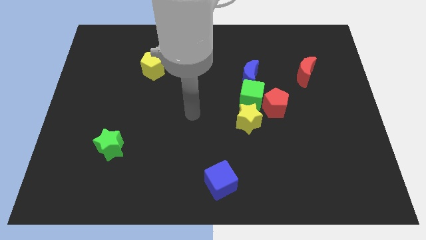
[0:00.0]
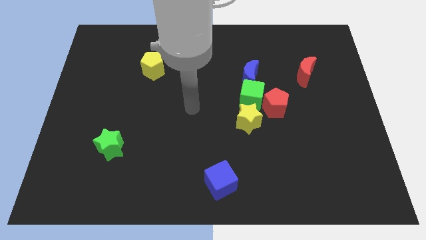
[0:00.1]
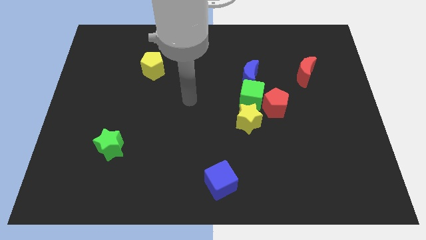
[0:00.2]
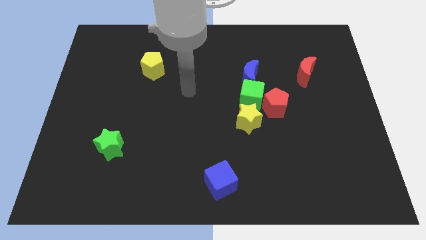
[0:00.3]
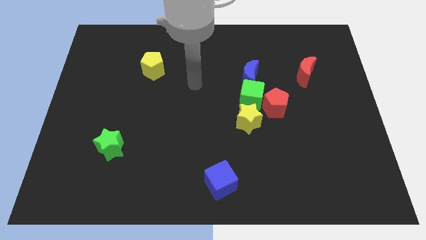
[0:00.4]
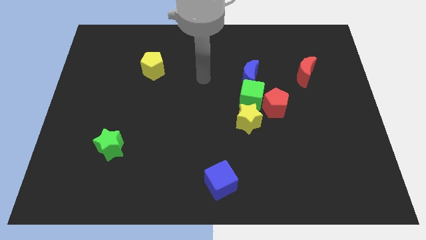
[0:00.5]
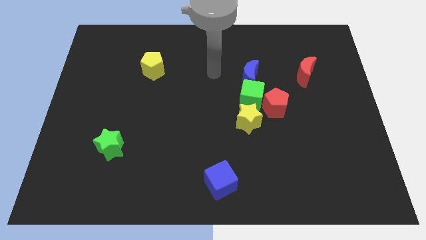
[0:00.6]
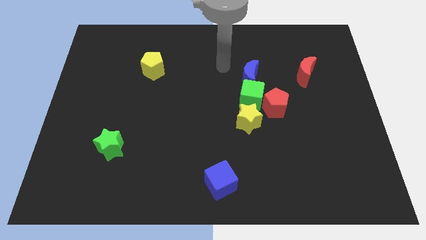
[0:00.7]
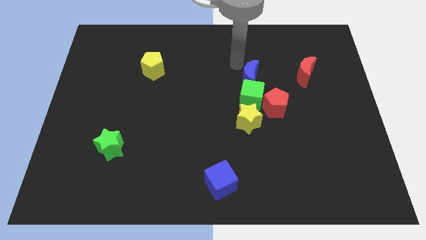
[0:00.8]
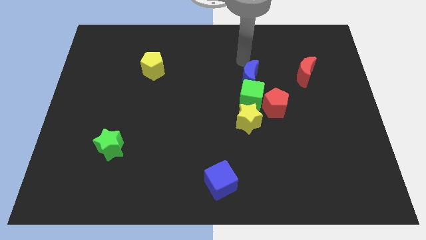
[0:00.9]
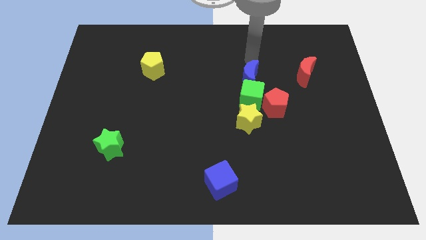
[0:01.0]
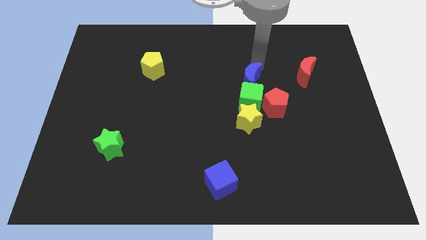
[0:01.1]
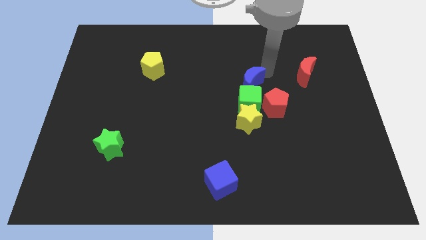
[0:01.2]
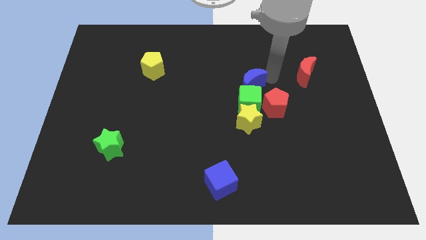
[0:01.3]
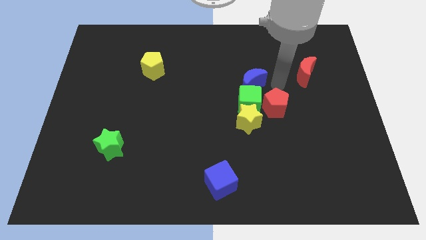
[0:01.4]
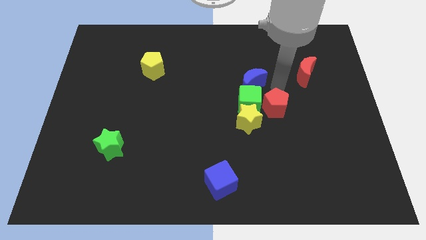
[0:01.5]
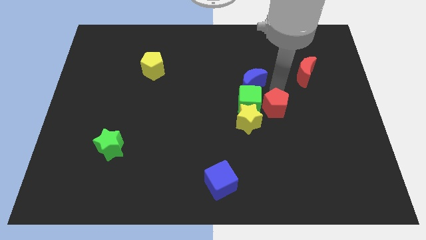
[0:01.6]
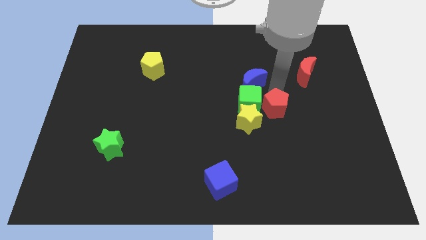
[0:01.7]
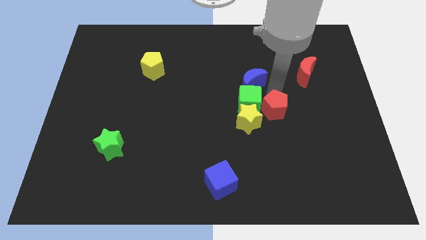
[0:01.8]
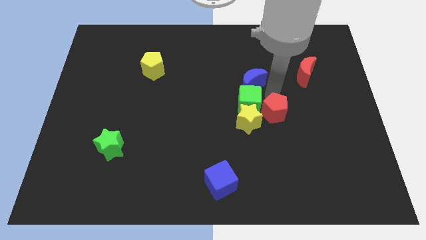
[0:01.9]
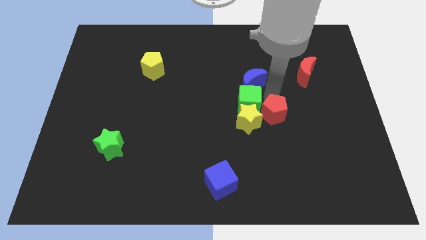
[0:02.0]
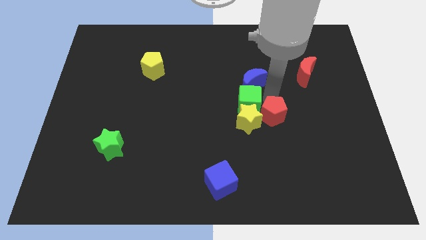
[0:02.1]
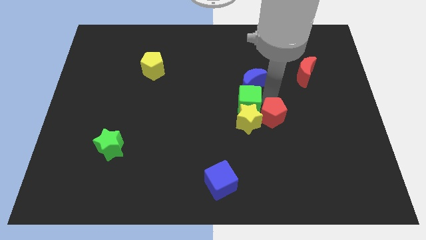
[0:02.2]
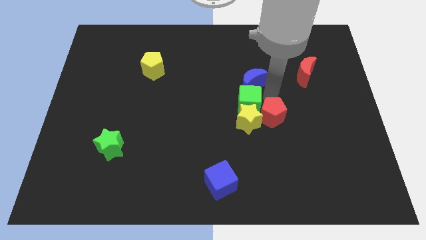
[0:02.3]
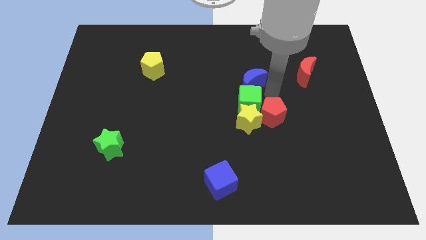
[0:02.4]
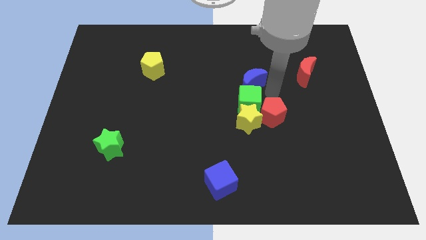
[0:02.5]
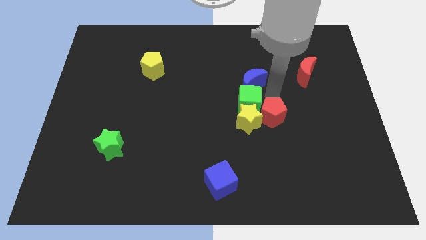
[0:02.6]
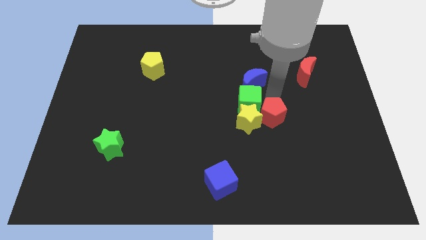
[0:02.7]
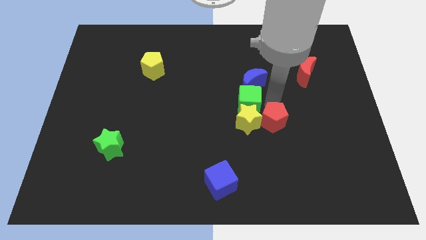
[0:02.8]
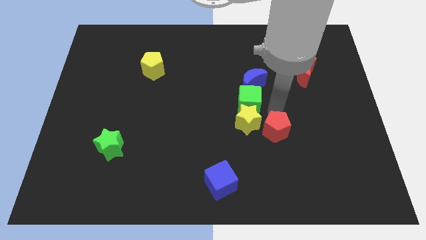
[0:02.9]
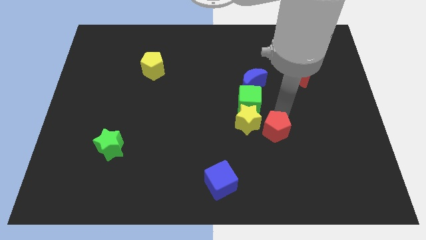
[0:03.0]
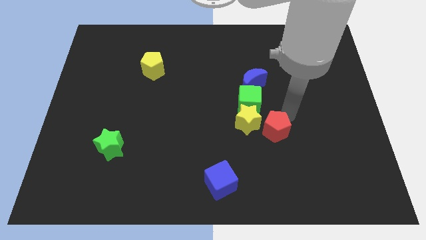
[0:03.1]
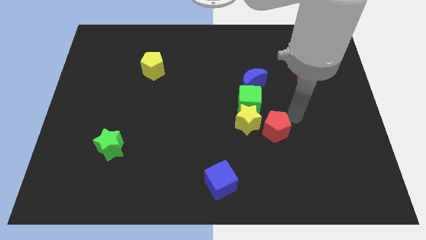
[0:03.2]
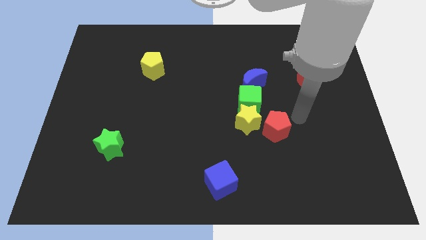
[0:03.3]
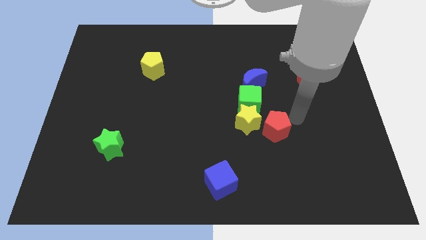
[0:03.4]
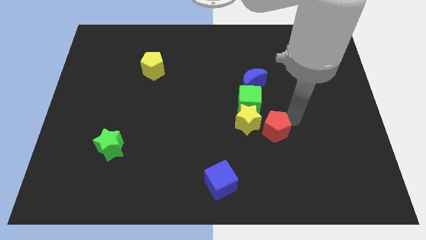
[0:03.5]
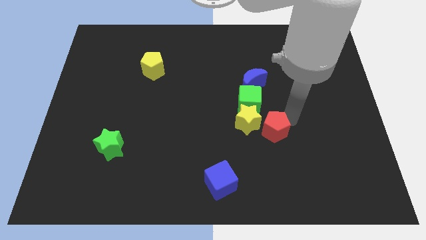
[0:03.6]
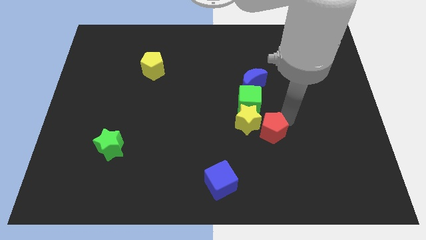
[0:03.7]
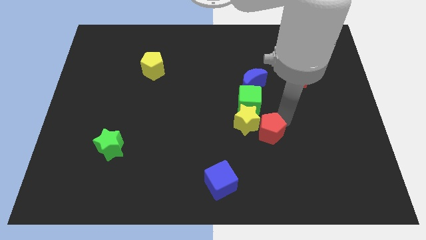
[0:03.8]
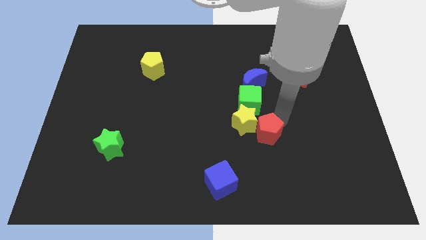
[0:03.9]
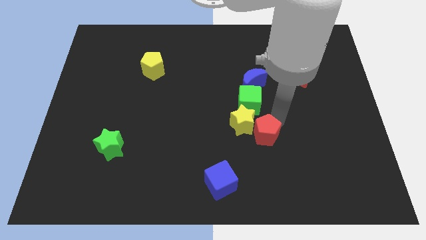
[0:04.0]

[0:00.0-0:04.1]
slide the red pentagon a little bit down and left diagonally

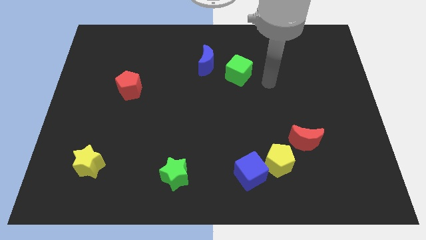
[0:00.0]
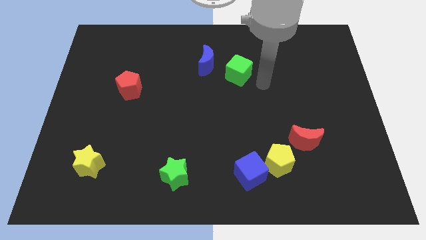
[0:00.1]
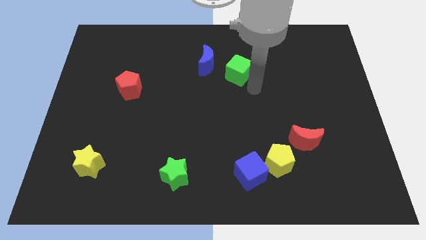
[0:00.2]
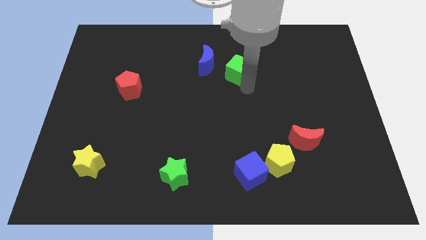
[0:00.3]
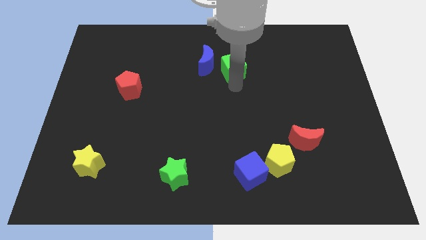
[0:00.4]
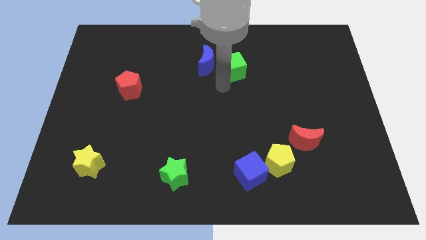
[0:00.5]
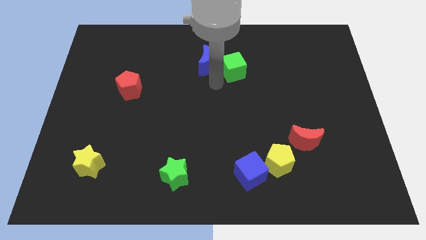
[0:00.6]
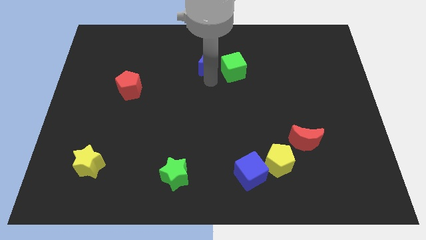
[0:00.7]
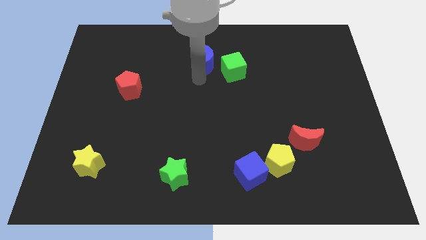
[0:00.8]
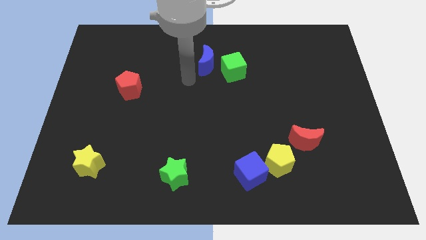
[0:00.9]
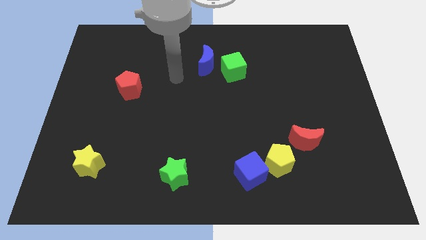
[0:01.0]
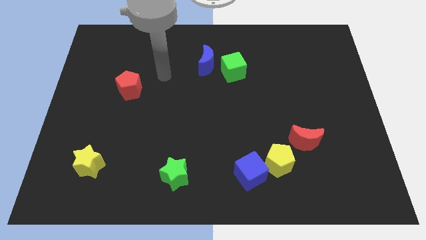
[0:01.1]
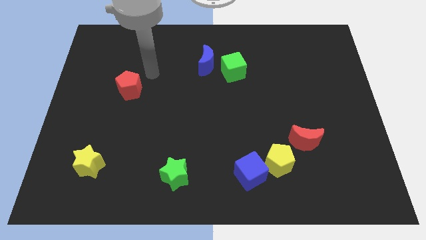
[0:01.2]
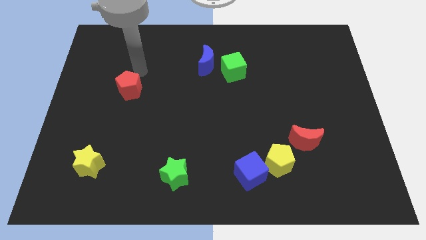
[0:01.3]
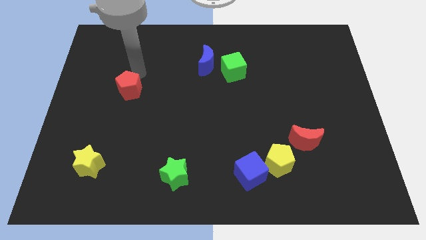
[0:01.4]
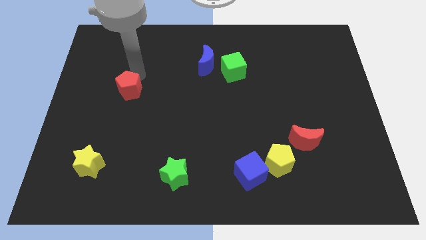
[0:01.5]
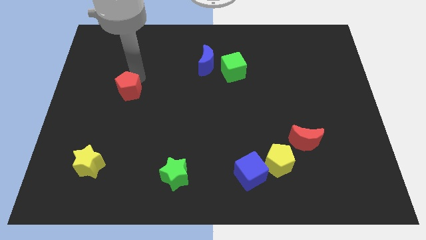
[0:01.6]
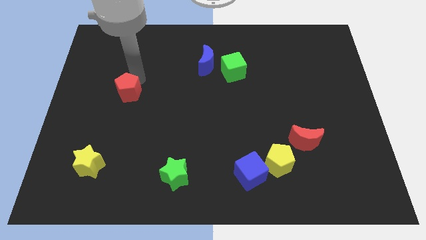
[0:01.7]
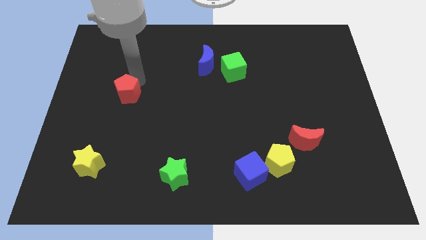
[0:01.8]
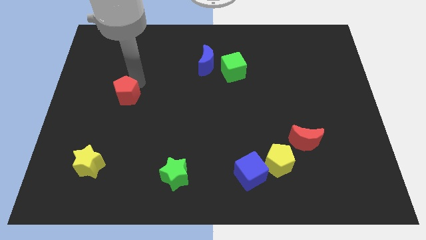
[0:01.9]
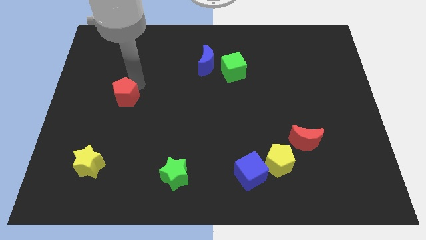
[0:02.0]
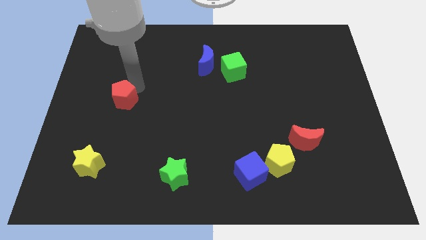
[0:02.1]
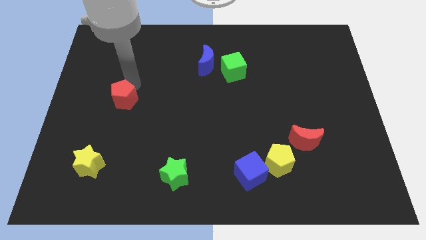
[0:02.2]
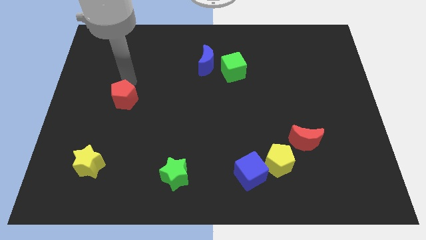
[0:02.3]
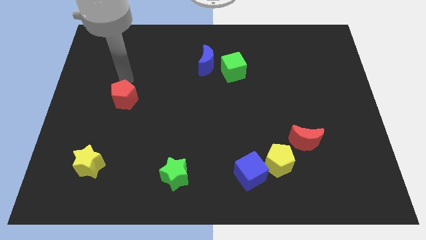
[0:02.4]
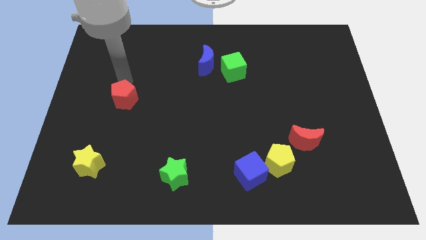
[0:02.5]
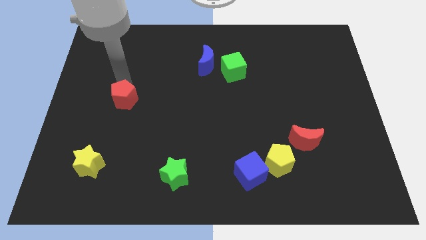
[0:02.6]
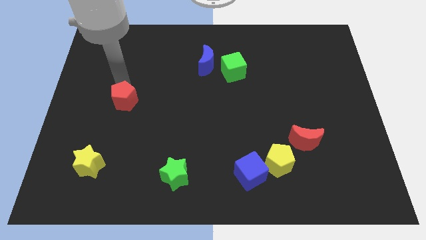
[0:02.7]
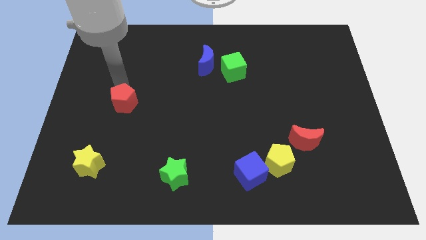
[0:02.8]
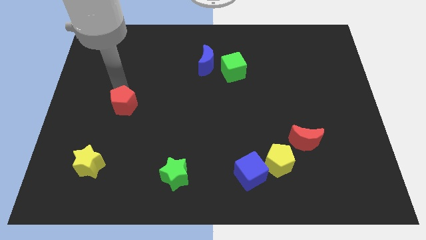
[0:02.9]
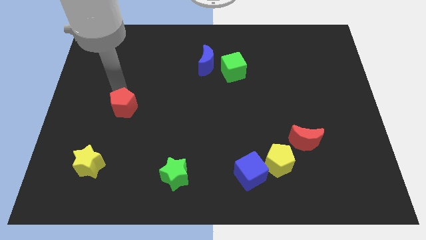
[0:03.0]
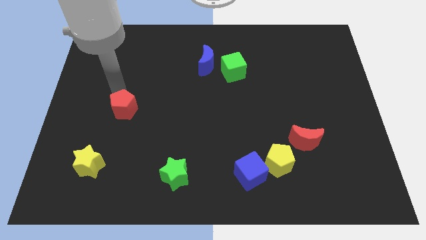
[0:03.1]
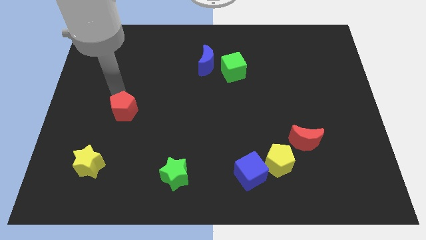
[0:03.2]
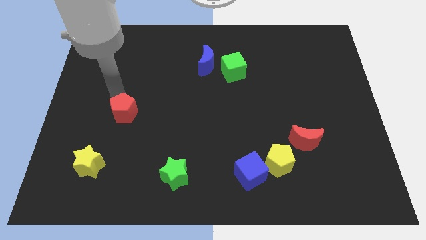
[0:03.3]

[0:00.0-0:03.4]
push the red pentagon a little bit down

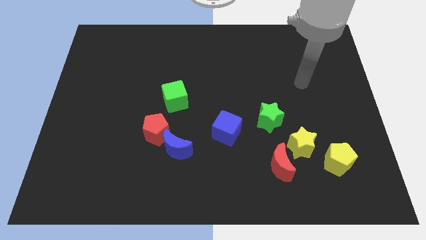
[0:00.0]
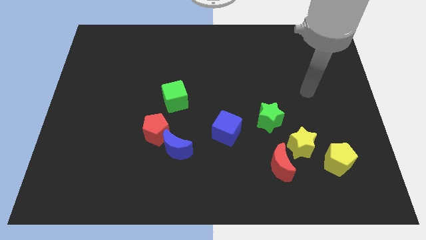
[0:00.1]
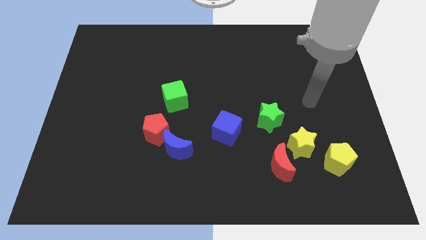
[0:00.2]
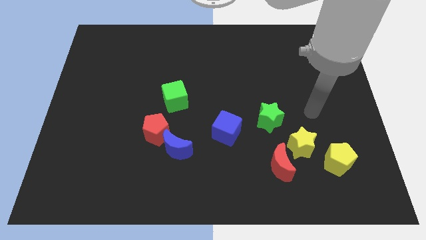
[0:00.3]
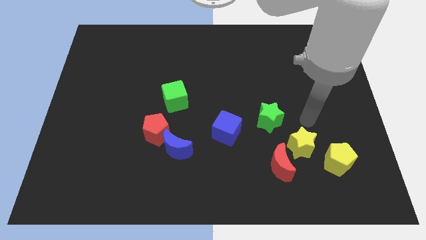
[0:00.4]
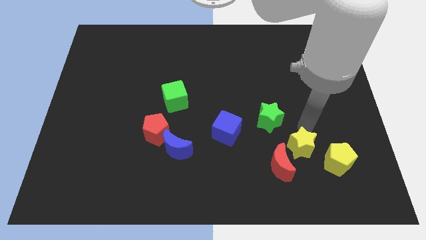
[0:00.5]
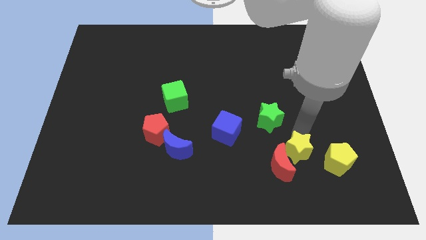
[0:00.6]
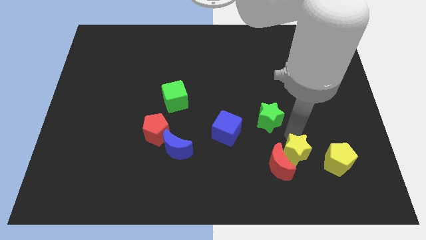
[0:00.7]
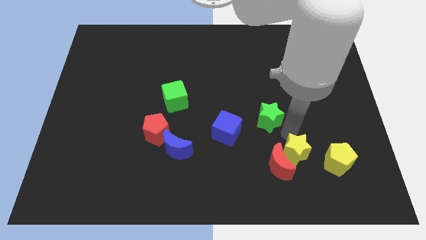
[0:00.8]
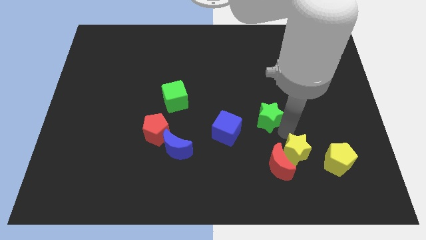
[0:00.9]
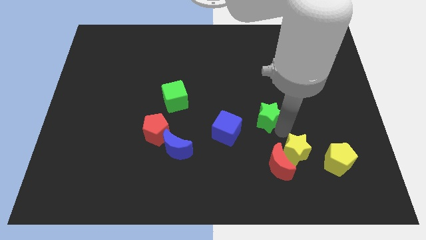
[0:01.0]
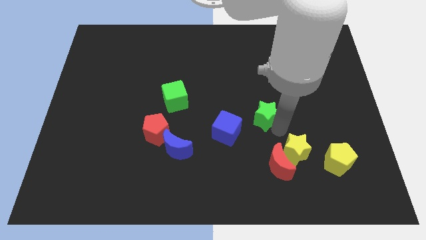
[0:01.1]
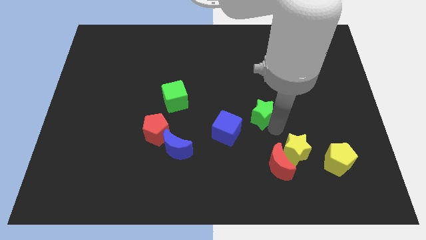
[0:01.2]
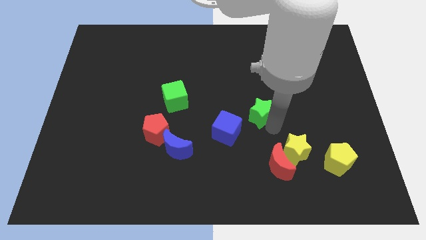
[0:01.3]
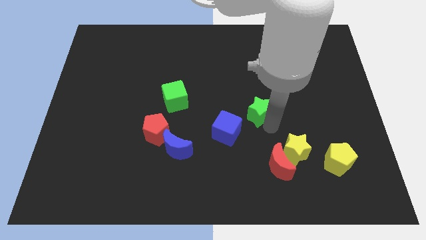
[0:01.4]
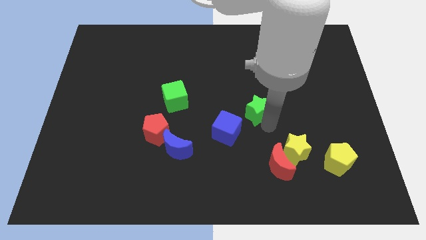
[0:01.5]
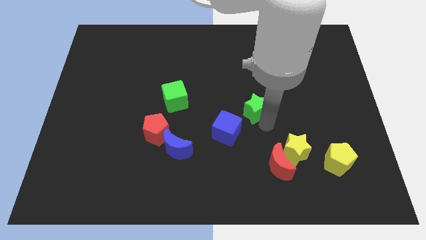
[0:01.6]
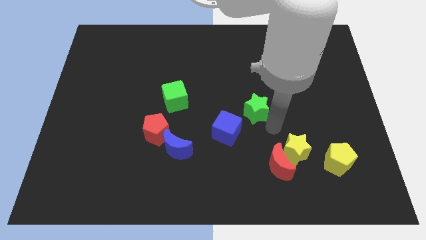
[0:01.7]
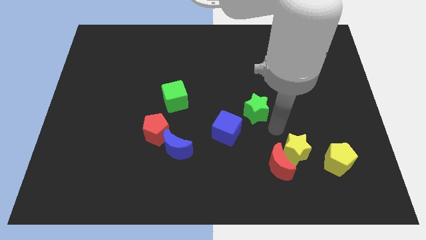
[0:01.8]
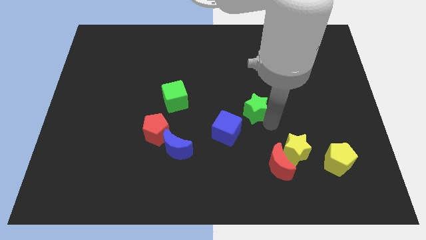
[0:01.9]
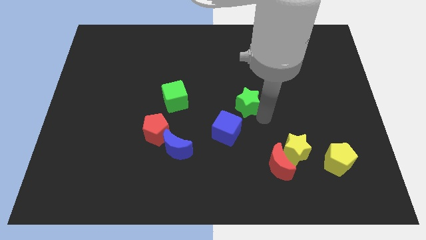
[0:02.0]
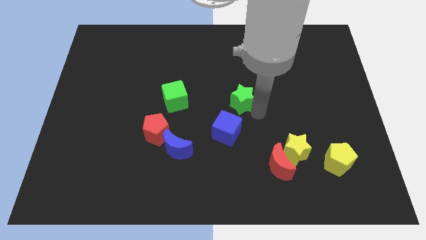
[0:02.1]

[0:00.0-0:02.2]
slide the green star upwards and to the left slightly
